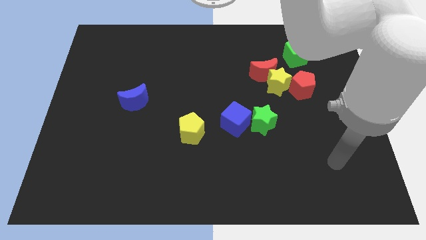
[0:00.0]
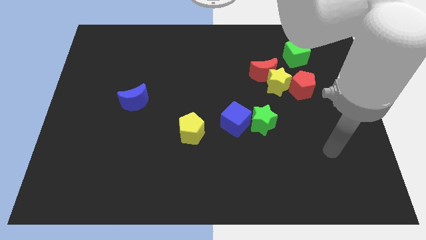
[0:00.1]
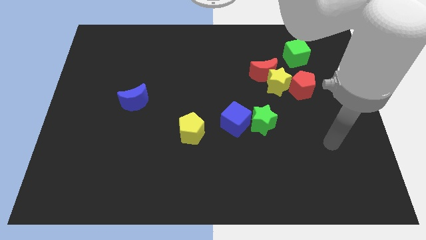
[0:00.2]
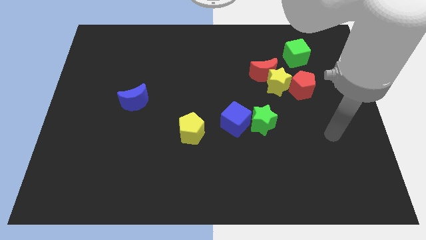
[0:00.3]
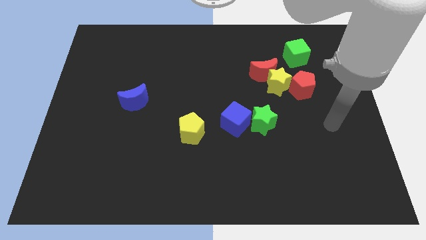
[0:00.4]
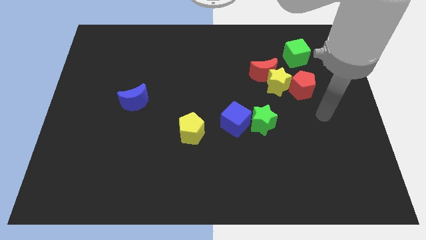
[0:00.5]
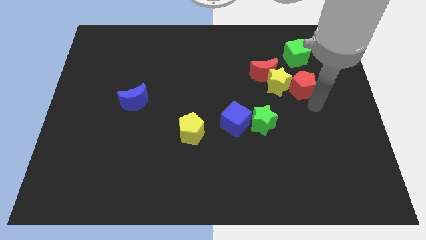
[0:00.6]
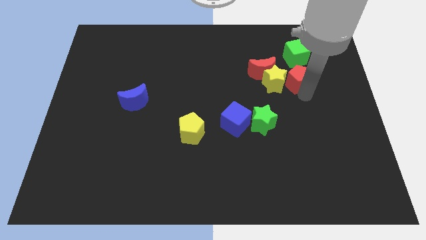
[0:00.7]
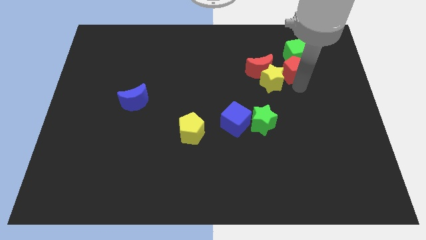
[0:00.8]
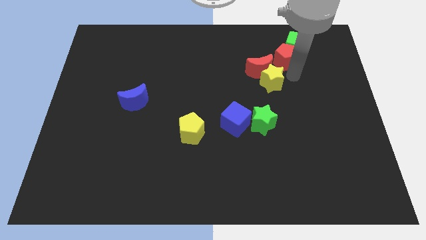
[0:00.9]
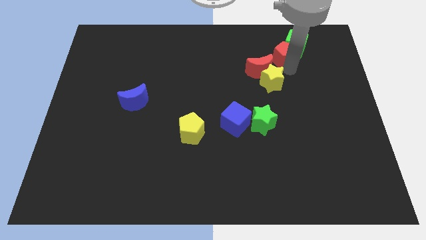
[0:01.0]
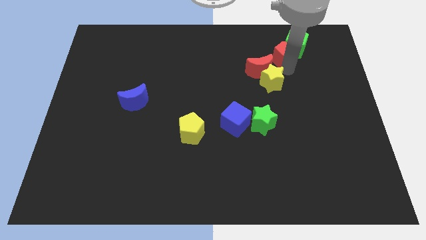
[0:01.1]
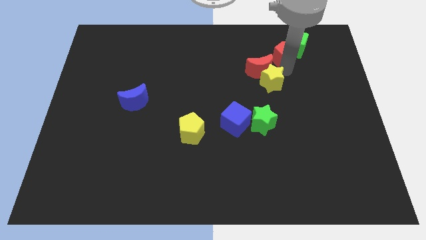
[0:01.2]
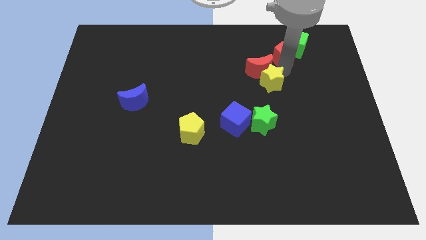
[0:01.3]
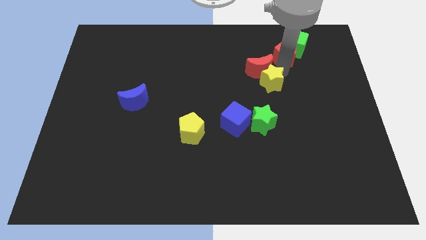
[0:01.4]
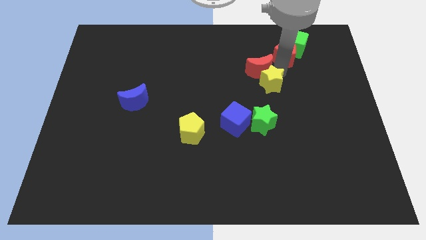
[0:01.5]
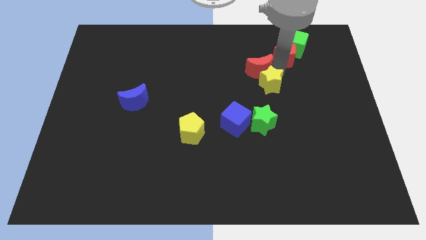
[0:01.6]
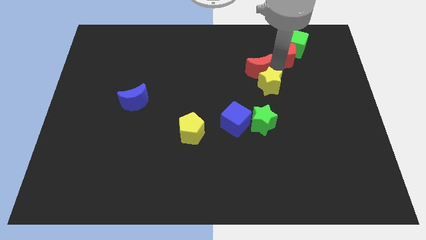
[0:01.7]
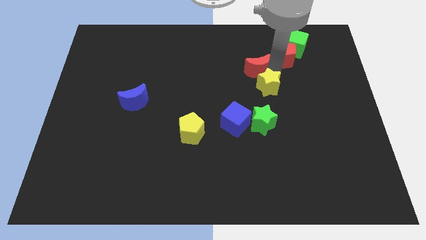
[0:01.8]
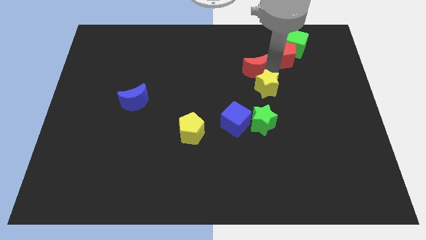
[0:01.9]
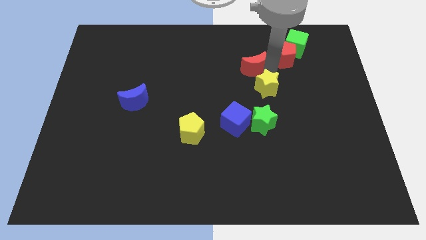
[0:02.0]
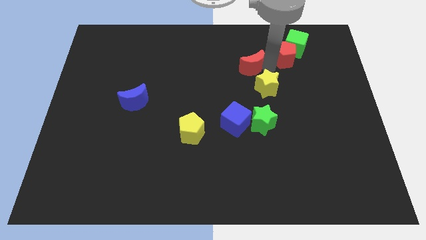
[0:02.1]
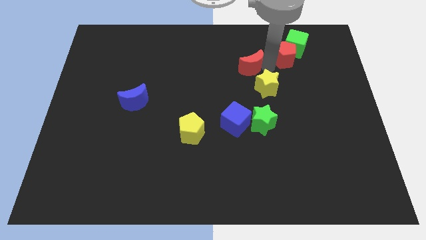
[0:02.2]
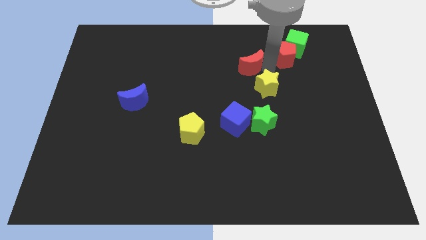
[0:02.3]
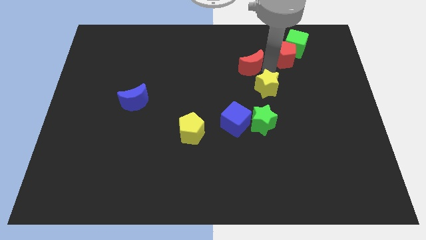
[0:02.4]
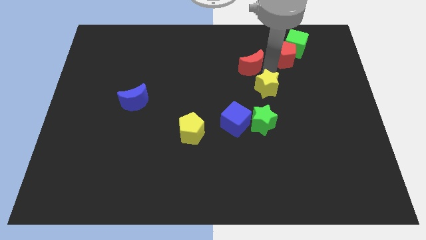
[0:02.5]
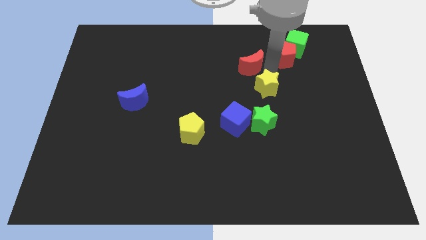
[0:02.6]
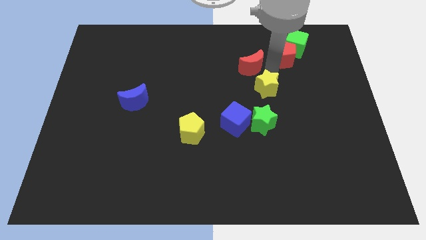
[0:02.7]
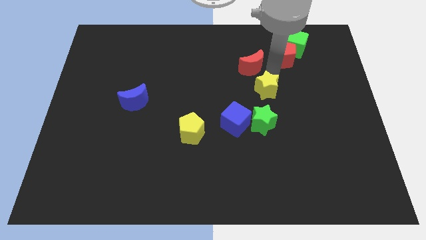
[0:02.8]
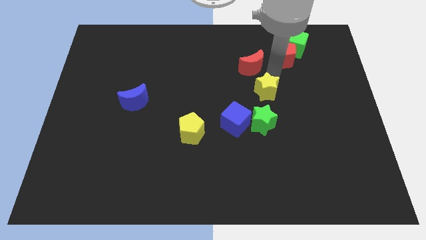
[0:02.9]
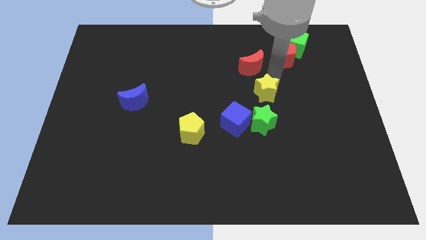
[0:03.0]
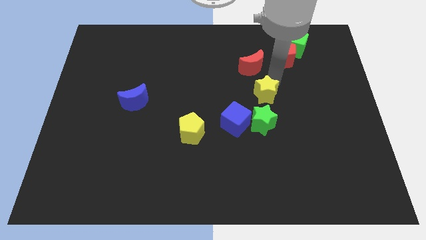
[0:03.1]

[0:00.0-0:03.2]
move the yellow star away from the red moon and red pentagon

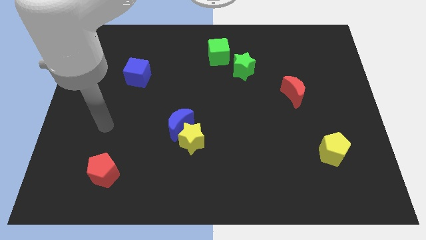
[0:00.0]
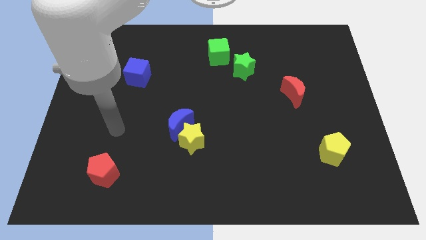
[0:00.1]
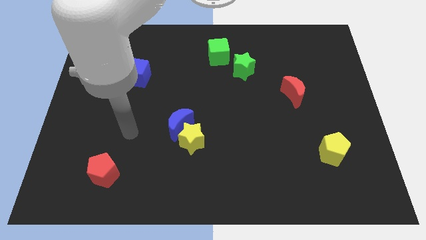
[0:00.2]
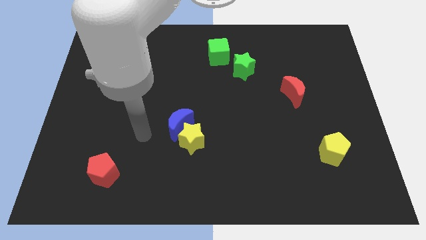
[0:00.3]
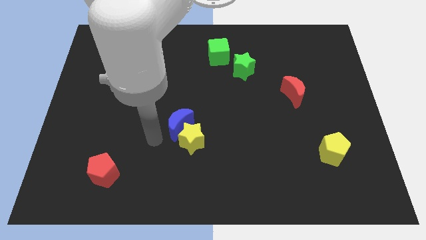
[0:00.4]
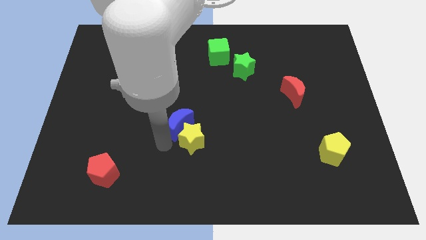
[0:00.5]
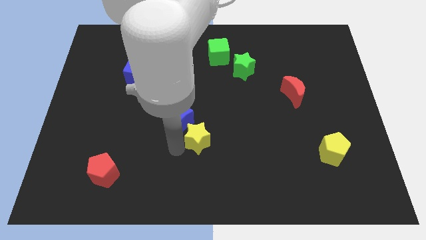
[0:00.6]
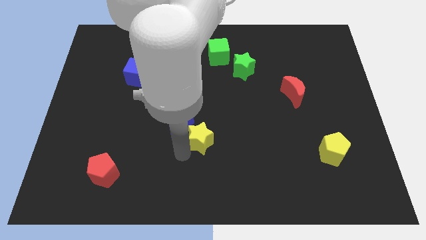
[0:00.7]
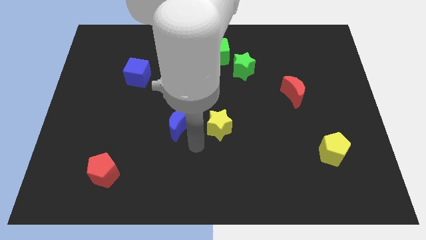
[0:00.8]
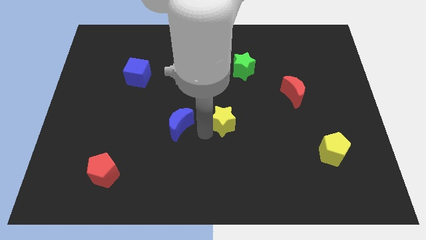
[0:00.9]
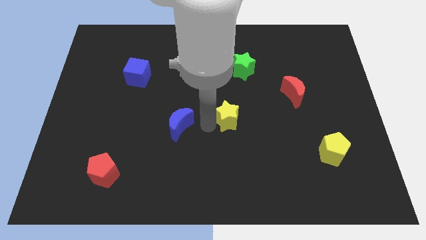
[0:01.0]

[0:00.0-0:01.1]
move the blue moon away from the yellow star

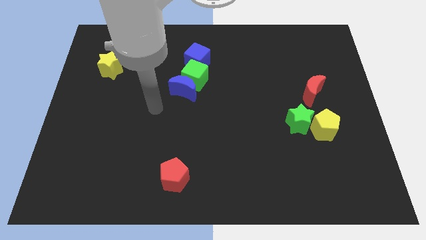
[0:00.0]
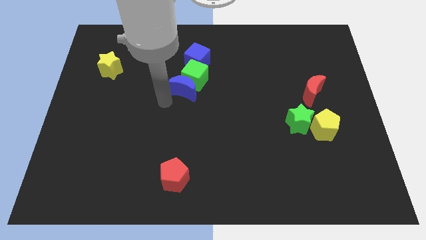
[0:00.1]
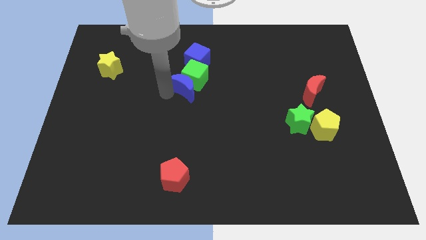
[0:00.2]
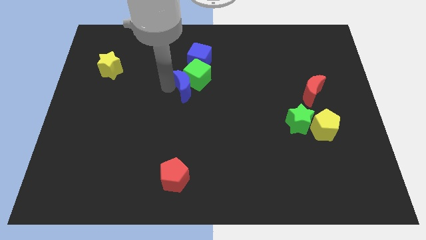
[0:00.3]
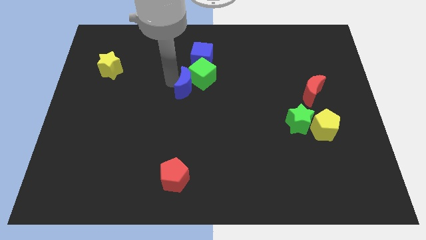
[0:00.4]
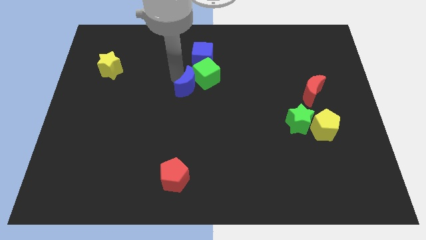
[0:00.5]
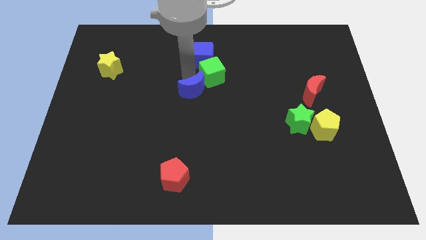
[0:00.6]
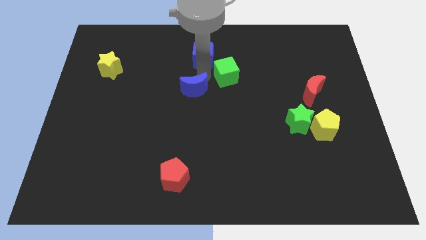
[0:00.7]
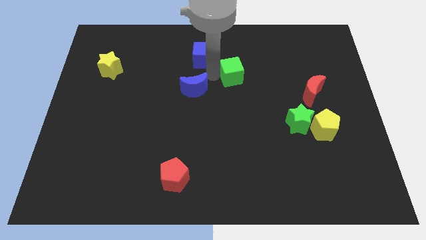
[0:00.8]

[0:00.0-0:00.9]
pull the blue moon apart from the green cube

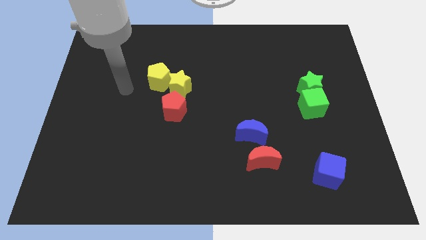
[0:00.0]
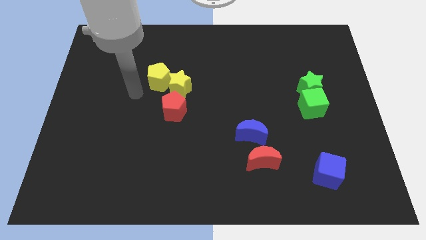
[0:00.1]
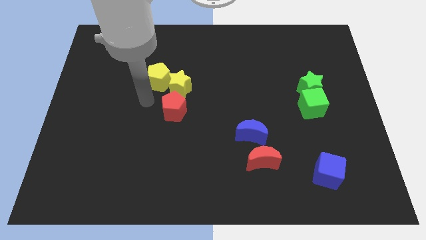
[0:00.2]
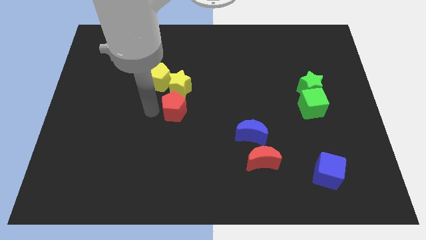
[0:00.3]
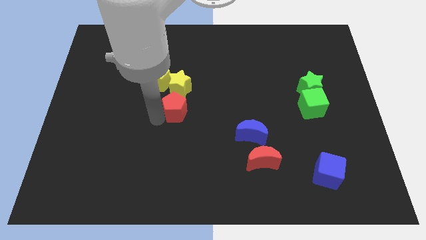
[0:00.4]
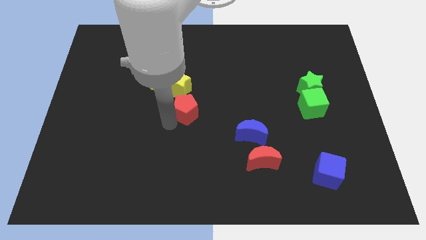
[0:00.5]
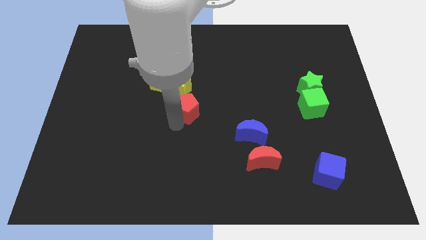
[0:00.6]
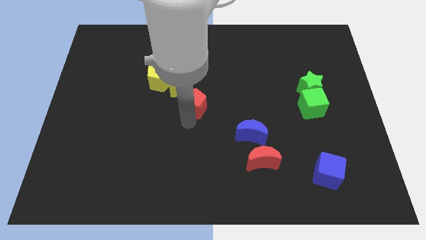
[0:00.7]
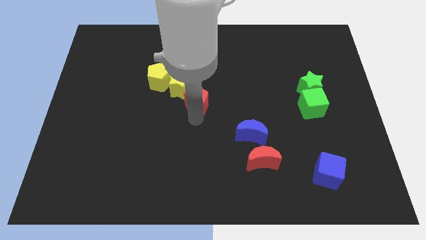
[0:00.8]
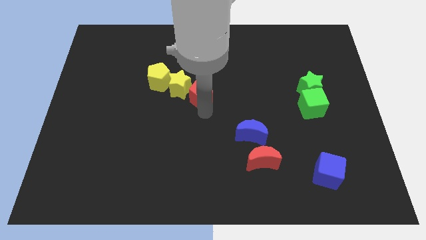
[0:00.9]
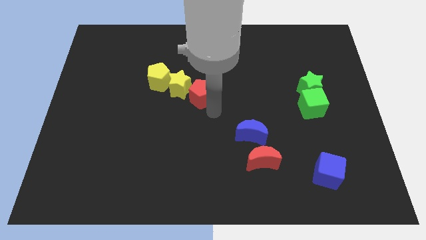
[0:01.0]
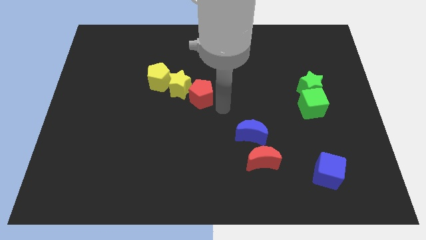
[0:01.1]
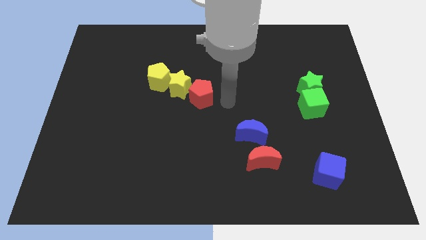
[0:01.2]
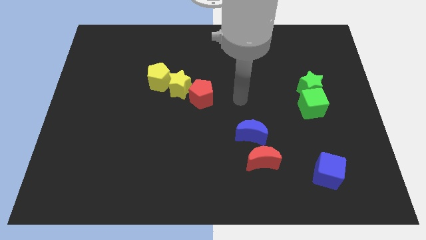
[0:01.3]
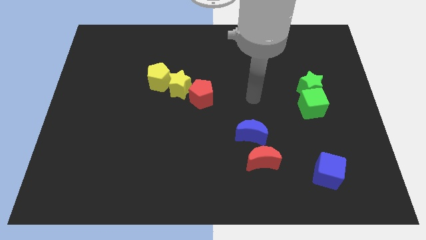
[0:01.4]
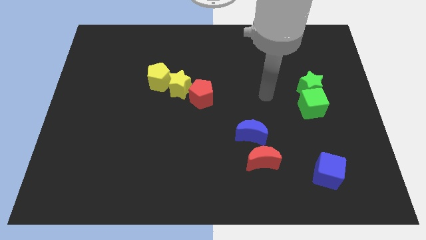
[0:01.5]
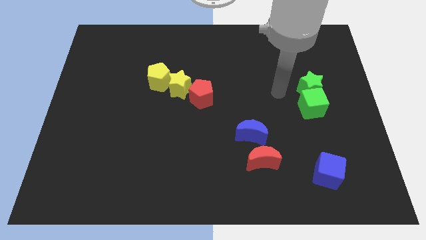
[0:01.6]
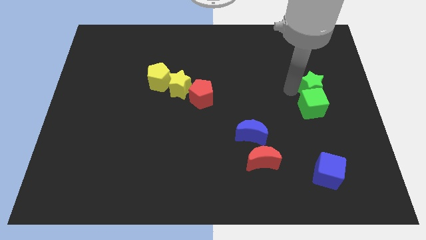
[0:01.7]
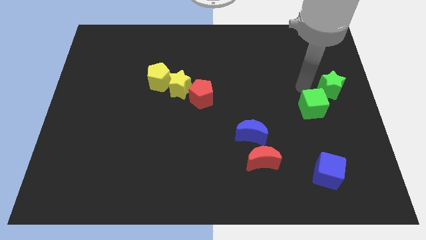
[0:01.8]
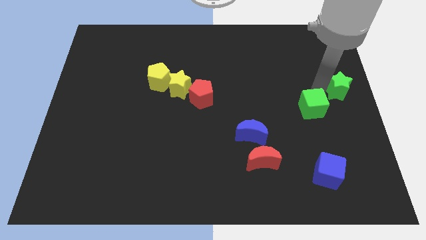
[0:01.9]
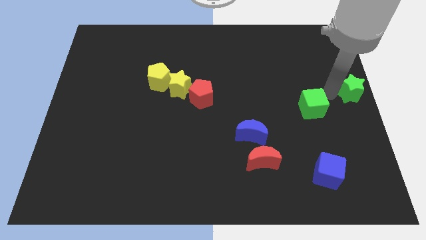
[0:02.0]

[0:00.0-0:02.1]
move the green cube away from the green star

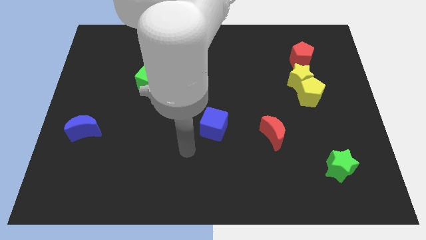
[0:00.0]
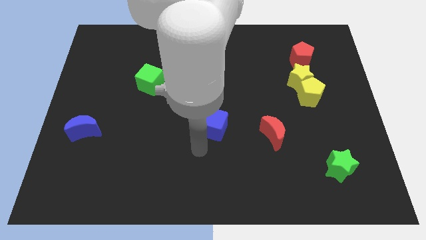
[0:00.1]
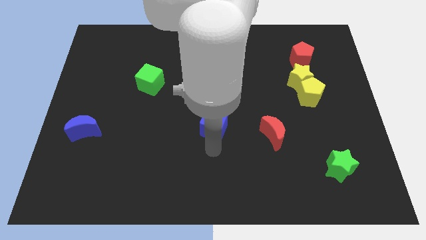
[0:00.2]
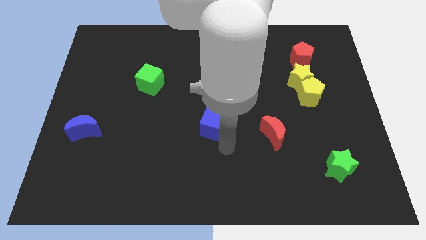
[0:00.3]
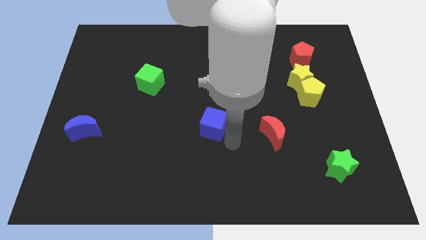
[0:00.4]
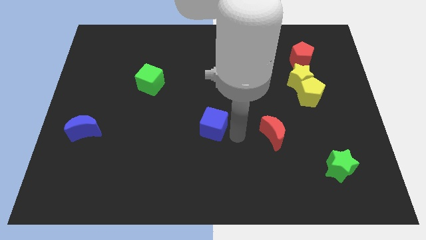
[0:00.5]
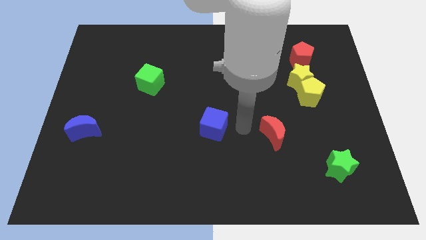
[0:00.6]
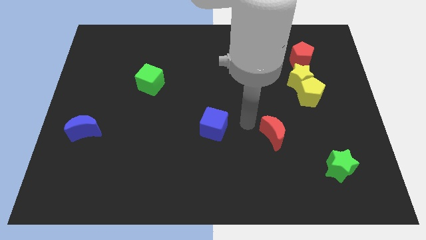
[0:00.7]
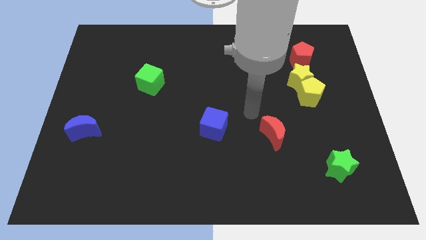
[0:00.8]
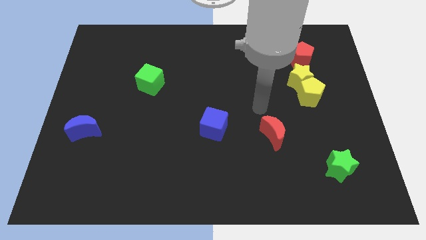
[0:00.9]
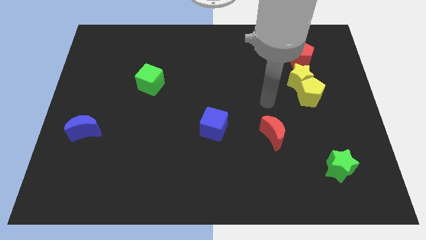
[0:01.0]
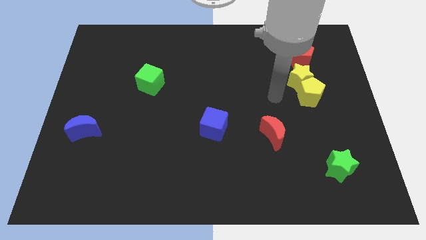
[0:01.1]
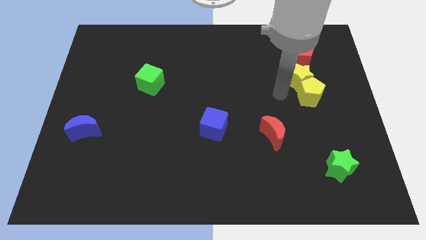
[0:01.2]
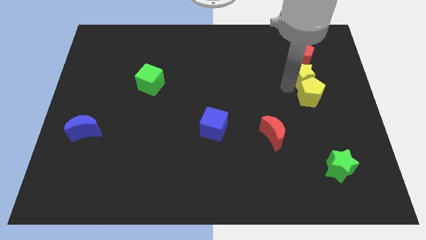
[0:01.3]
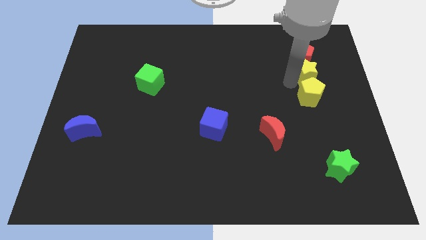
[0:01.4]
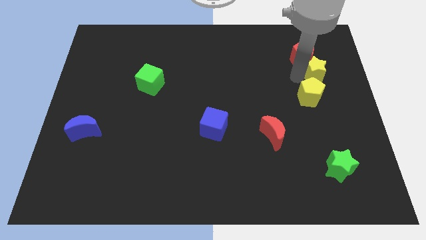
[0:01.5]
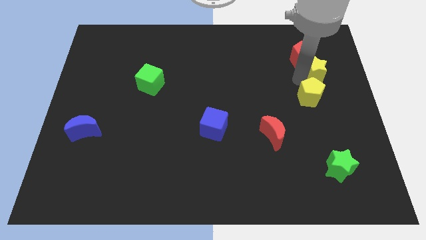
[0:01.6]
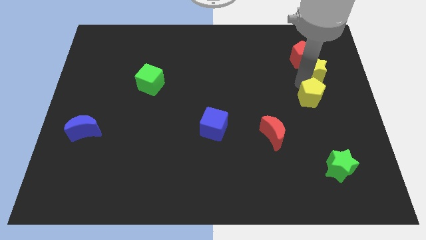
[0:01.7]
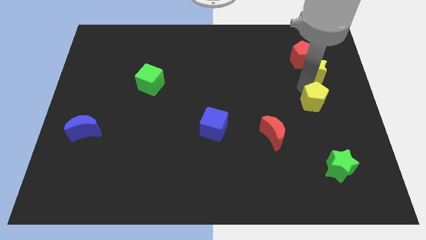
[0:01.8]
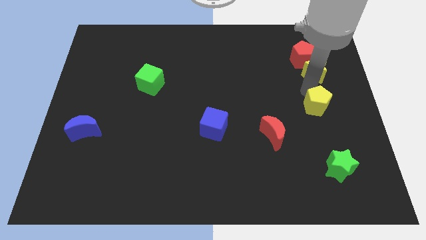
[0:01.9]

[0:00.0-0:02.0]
move the yellow pentagon away from the yellow star
